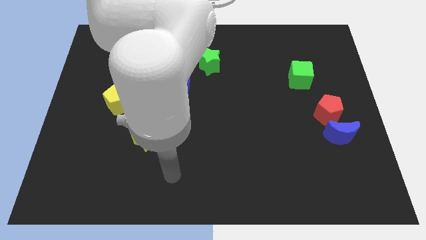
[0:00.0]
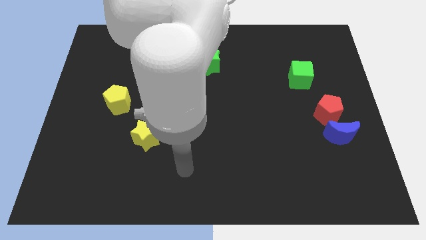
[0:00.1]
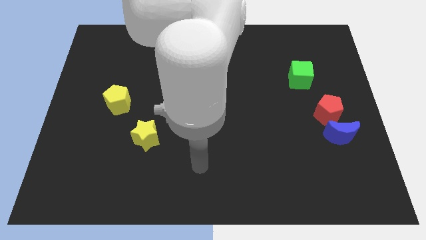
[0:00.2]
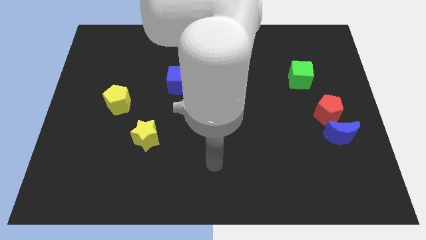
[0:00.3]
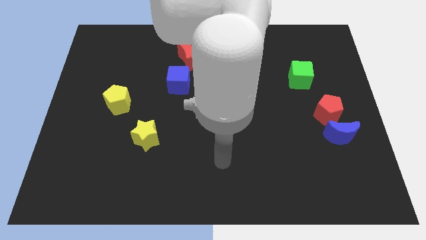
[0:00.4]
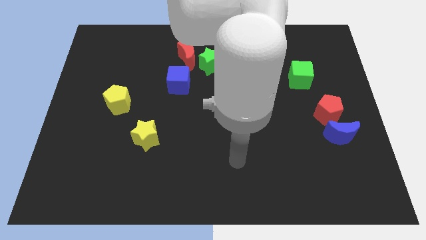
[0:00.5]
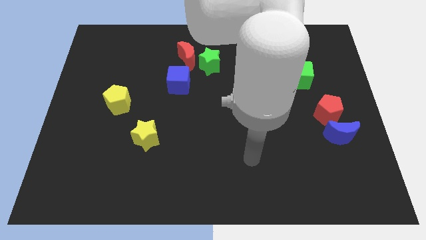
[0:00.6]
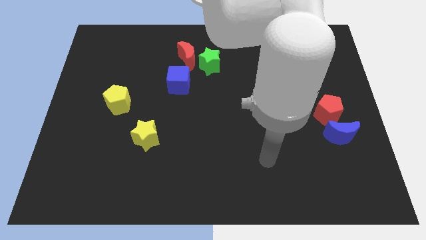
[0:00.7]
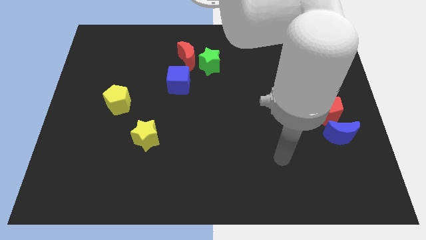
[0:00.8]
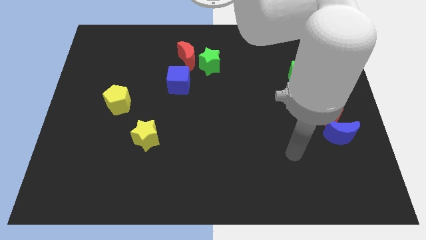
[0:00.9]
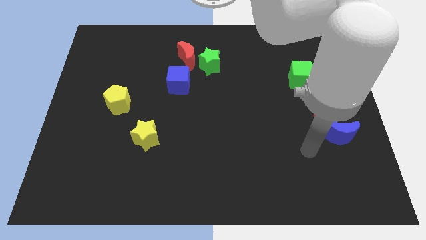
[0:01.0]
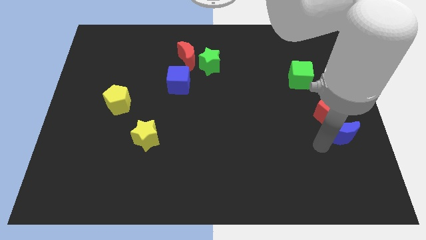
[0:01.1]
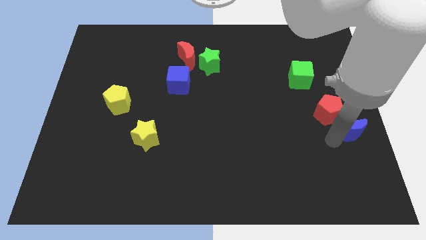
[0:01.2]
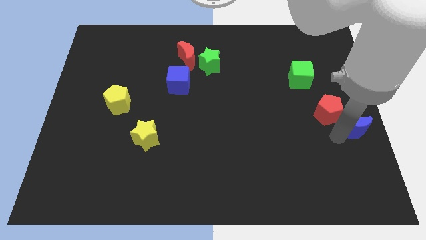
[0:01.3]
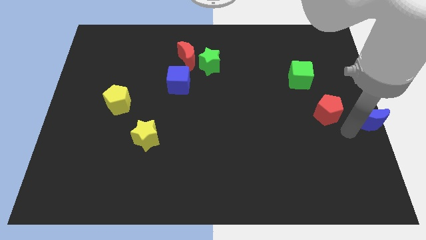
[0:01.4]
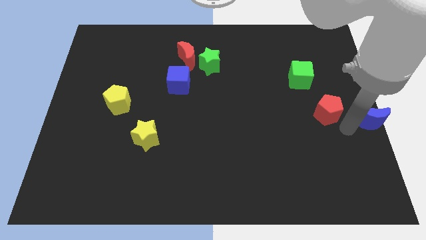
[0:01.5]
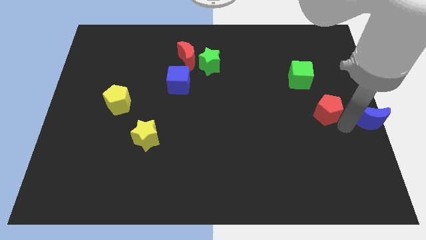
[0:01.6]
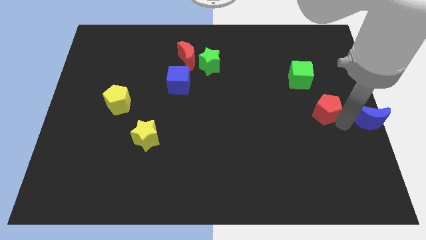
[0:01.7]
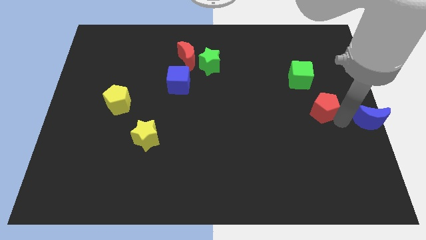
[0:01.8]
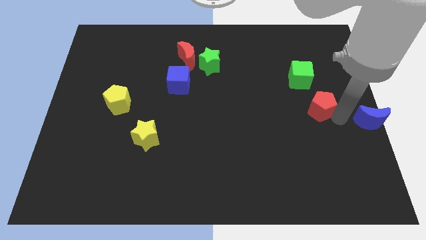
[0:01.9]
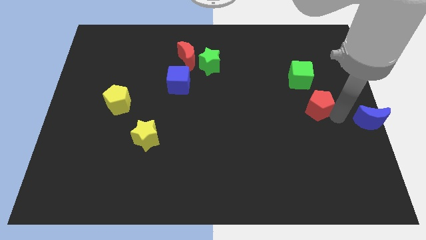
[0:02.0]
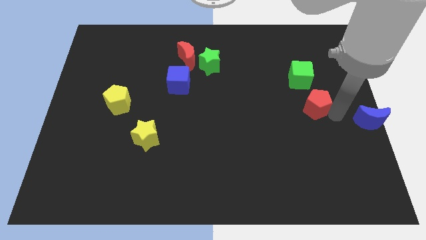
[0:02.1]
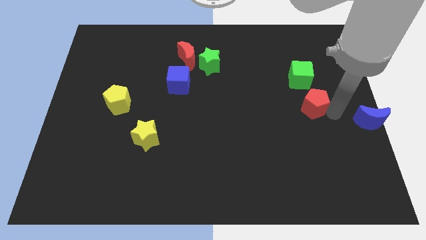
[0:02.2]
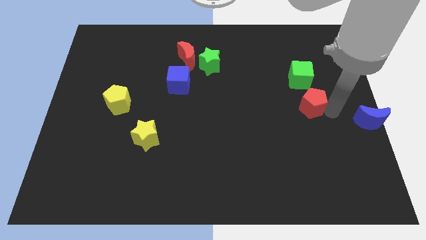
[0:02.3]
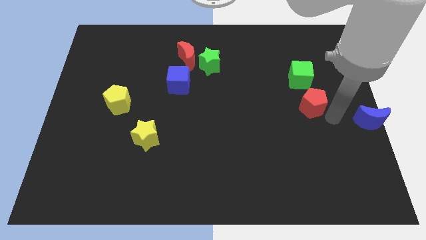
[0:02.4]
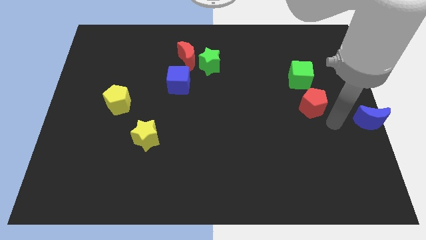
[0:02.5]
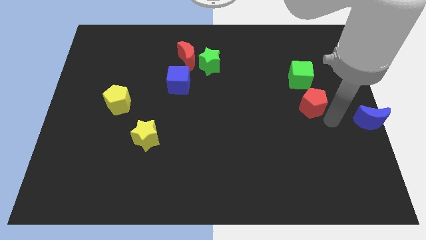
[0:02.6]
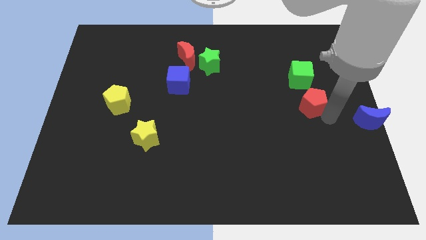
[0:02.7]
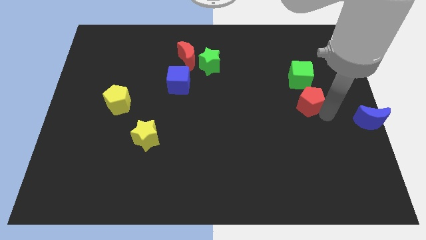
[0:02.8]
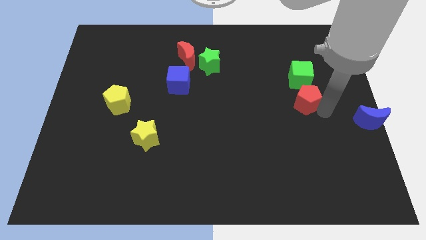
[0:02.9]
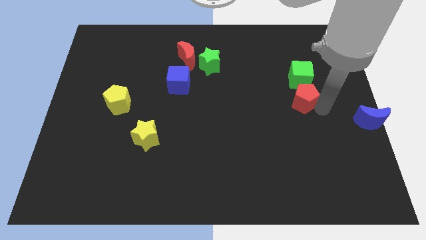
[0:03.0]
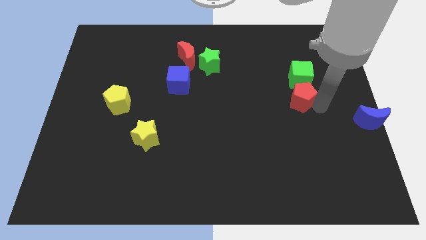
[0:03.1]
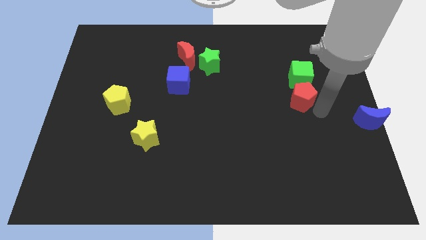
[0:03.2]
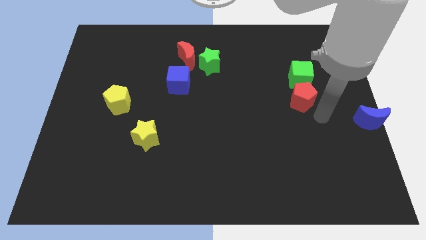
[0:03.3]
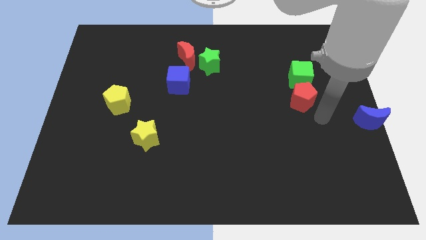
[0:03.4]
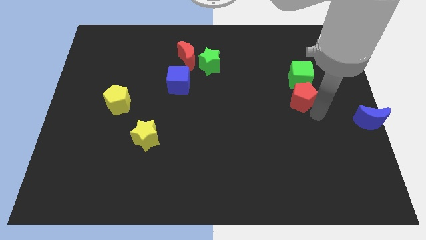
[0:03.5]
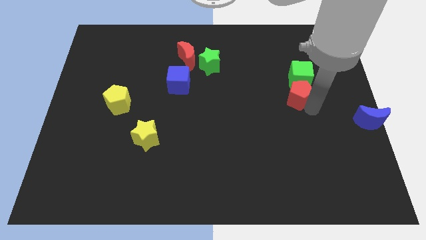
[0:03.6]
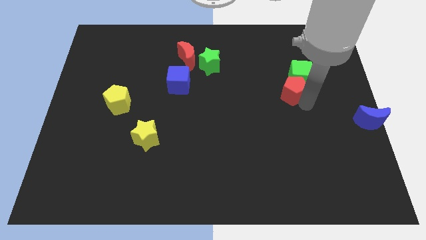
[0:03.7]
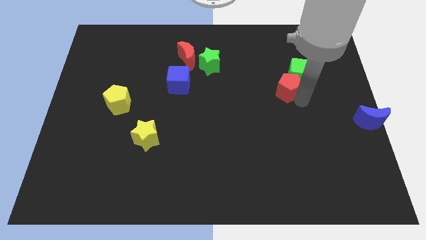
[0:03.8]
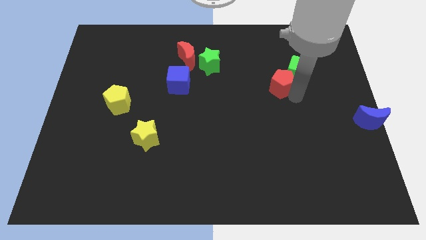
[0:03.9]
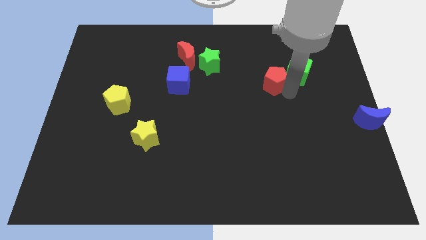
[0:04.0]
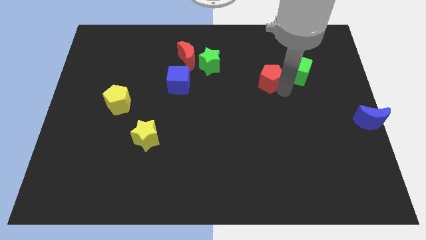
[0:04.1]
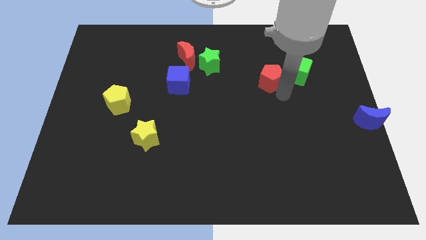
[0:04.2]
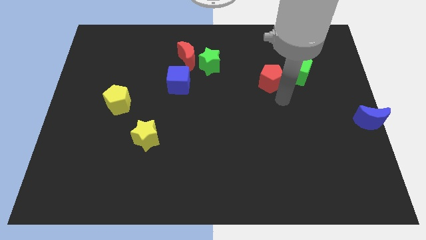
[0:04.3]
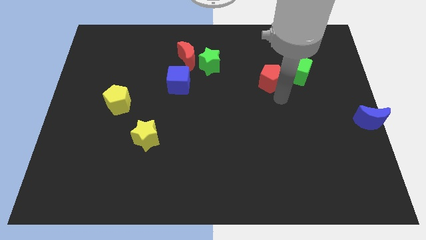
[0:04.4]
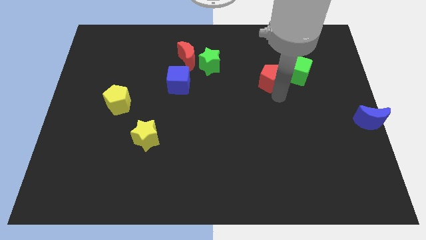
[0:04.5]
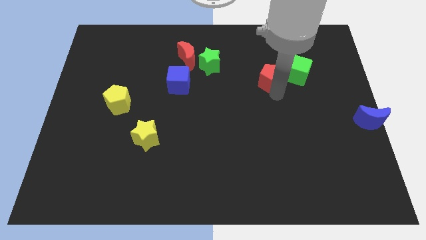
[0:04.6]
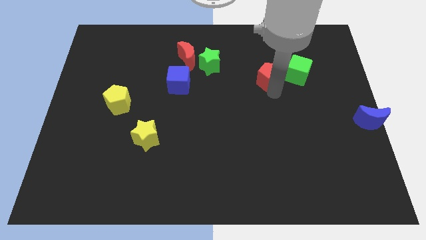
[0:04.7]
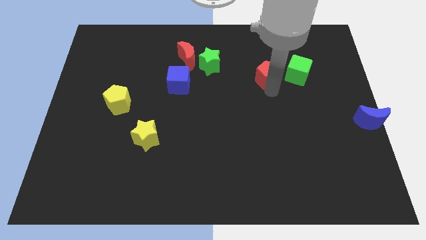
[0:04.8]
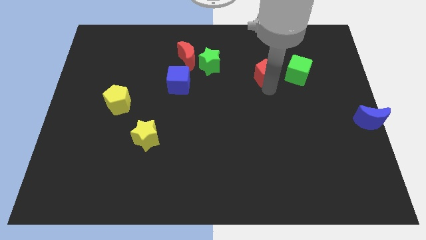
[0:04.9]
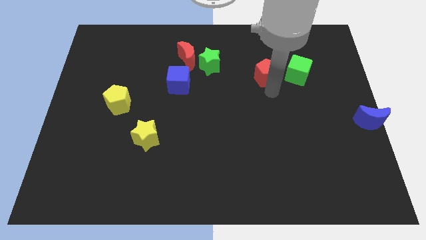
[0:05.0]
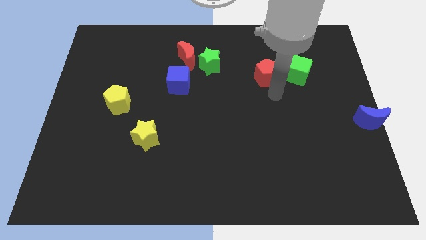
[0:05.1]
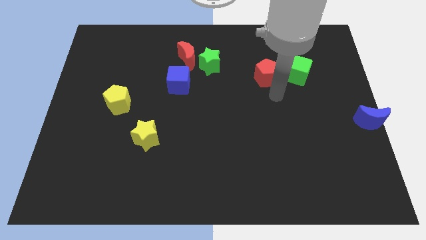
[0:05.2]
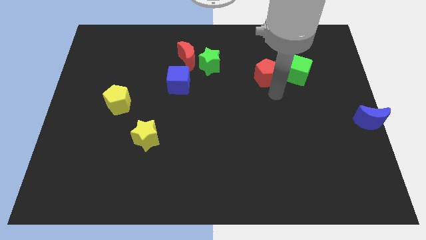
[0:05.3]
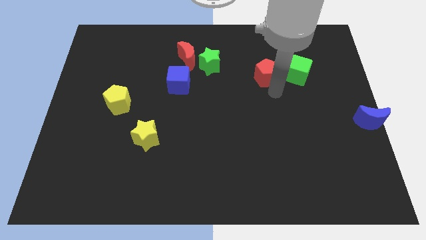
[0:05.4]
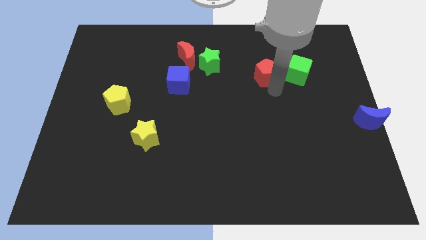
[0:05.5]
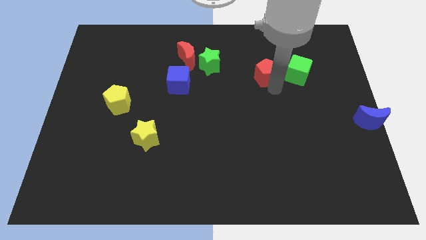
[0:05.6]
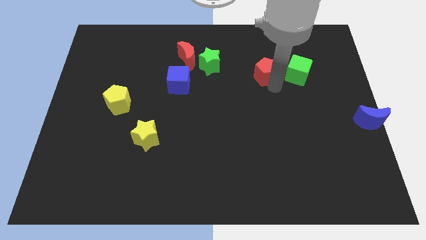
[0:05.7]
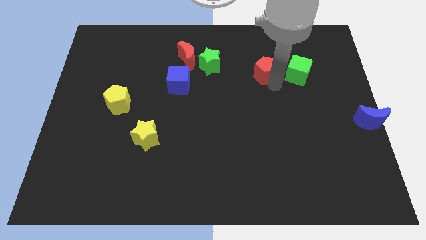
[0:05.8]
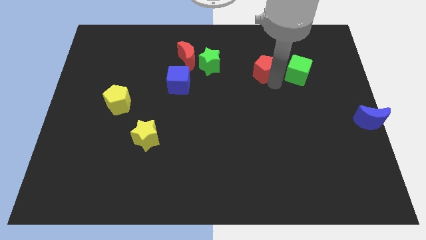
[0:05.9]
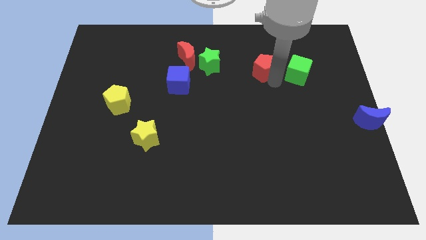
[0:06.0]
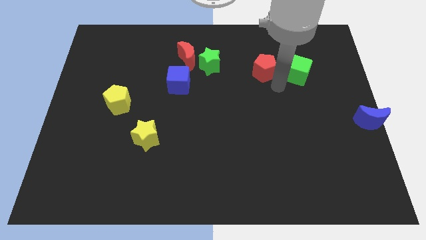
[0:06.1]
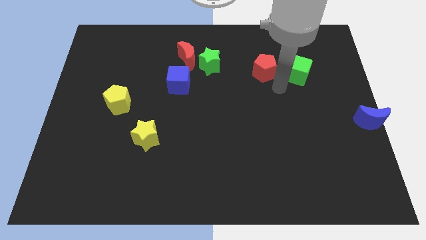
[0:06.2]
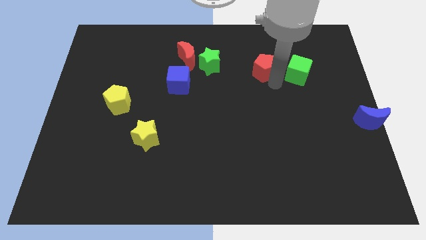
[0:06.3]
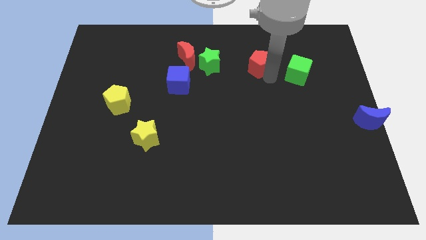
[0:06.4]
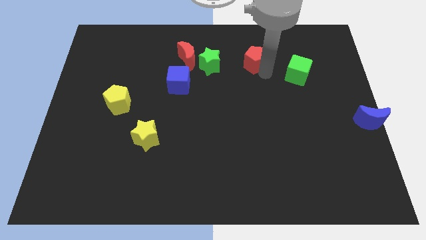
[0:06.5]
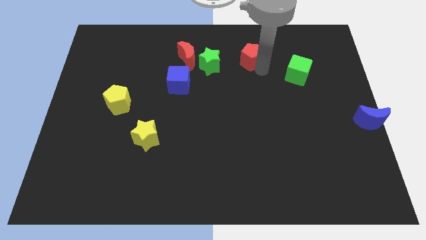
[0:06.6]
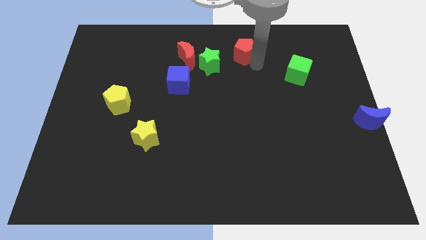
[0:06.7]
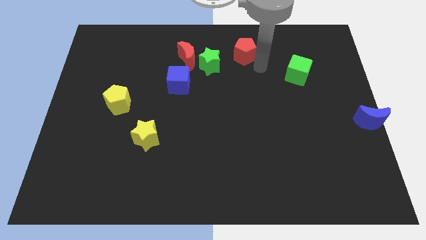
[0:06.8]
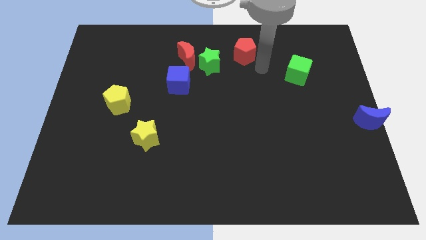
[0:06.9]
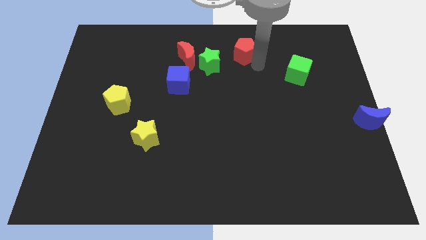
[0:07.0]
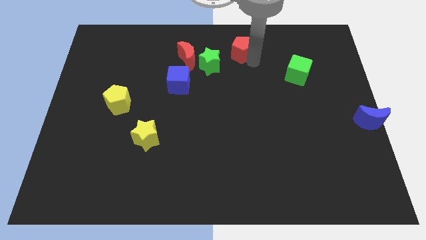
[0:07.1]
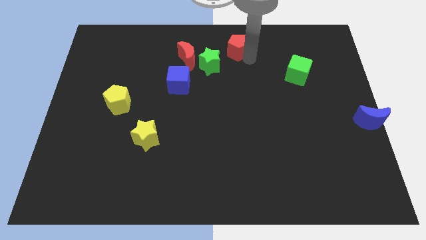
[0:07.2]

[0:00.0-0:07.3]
push the red pentagon to the top side

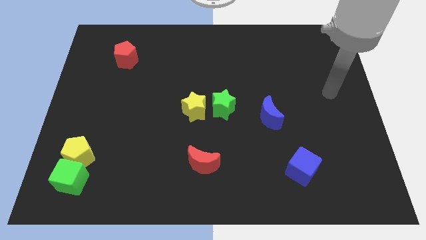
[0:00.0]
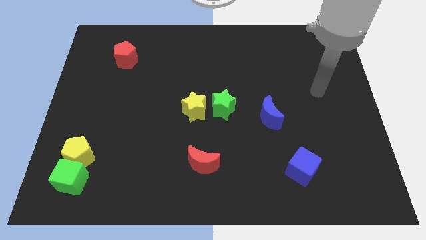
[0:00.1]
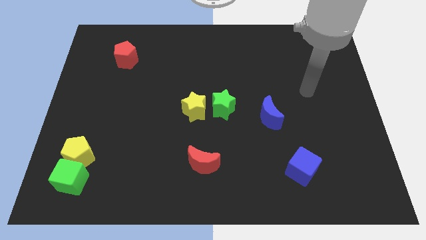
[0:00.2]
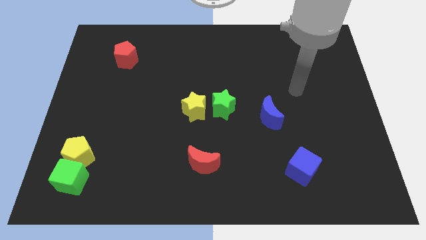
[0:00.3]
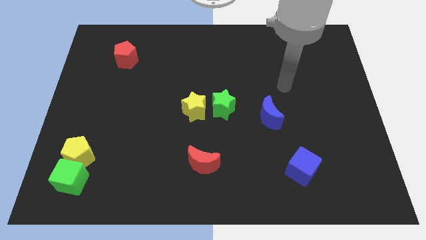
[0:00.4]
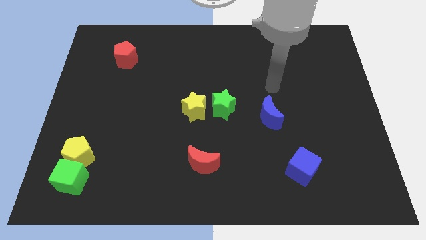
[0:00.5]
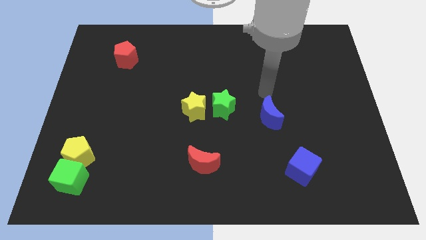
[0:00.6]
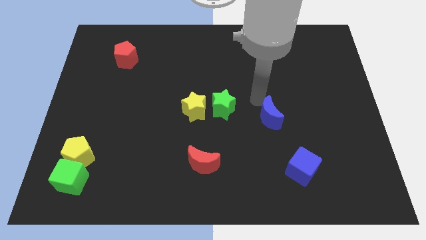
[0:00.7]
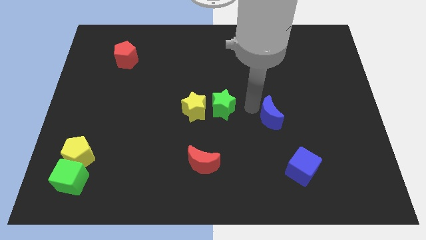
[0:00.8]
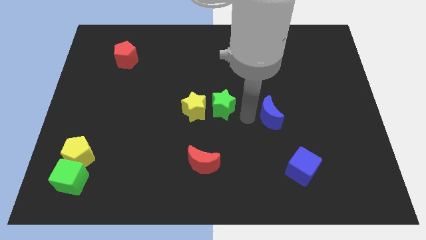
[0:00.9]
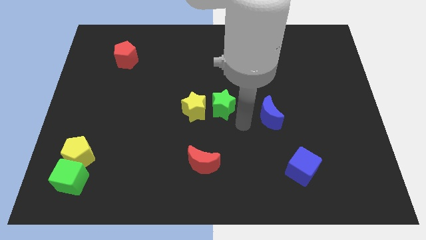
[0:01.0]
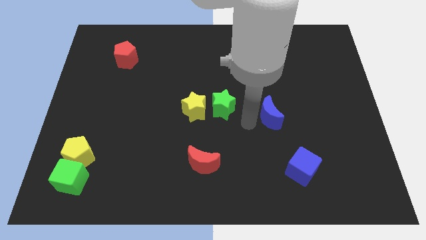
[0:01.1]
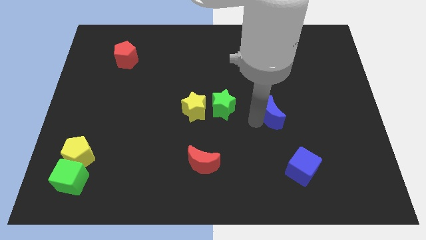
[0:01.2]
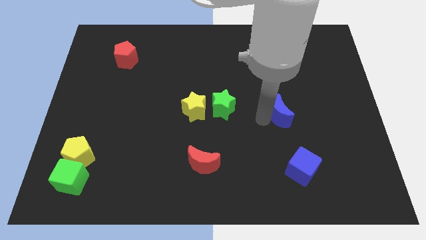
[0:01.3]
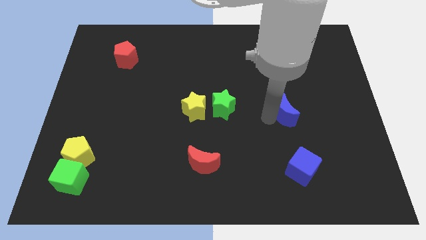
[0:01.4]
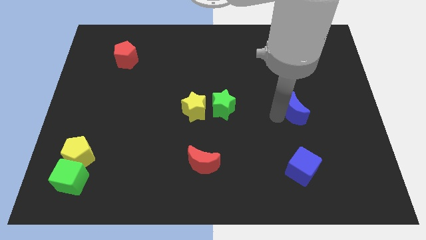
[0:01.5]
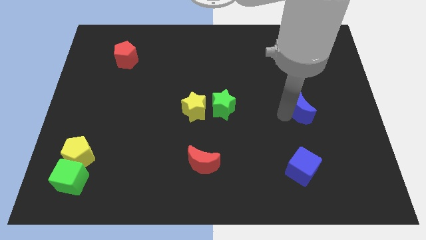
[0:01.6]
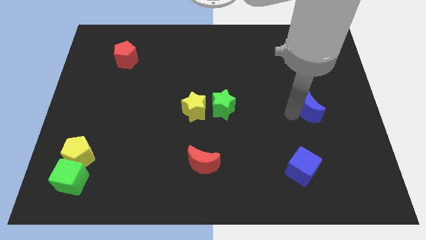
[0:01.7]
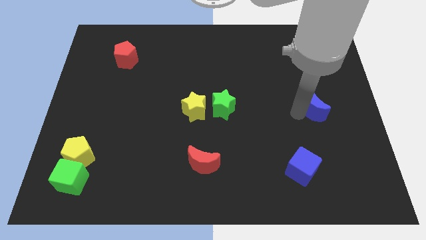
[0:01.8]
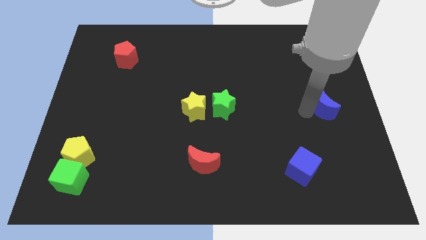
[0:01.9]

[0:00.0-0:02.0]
push the blue moon to the right side
